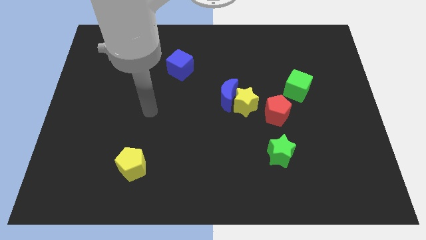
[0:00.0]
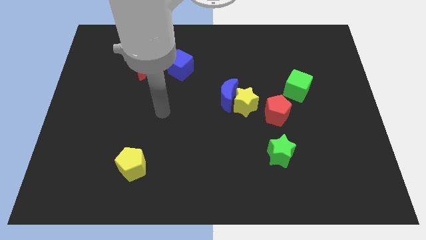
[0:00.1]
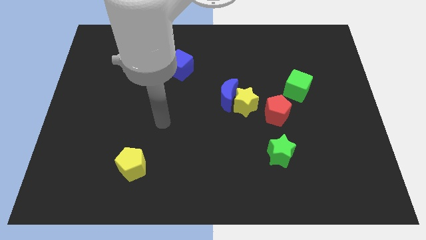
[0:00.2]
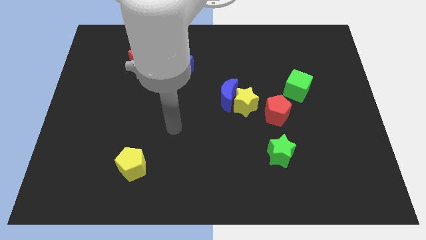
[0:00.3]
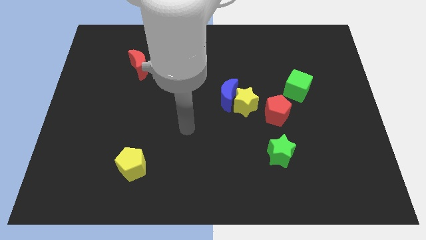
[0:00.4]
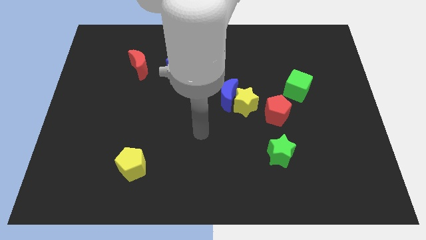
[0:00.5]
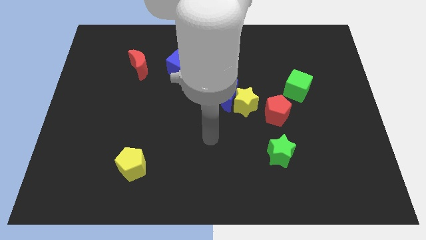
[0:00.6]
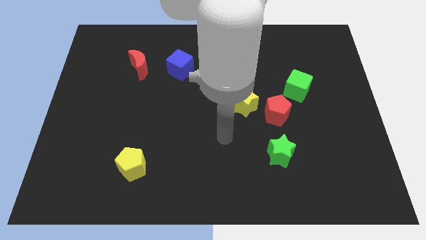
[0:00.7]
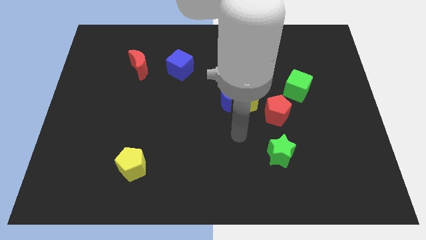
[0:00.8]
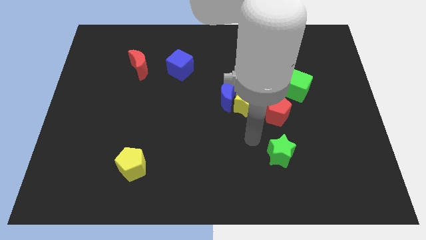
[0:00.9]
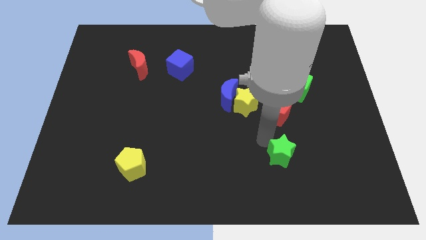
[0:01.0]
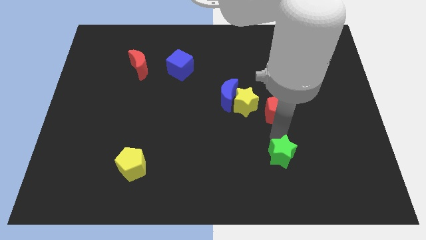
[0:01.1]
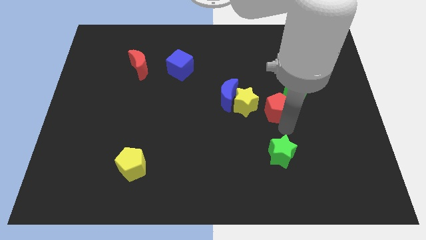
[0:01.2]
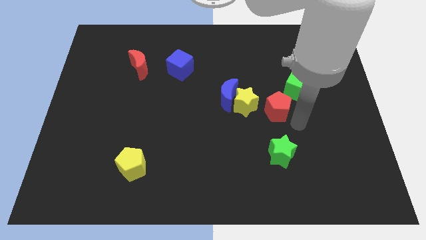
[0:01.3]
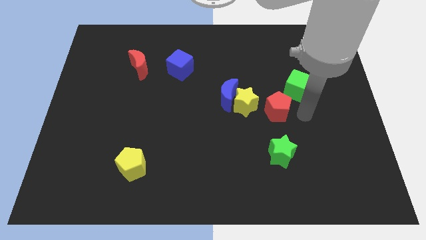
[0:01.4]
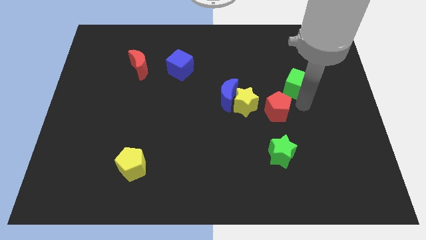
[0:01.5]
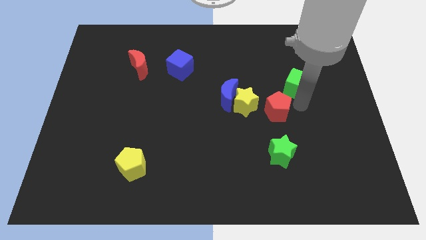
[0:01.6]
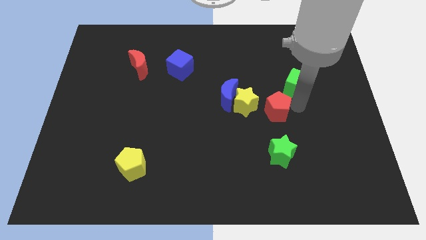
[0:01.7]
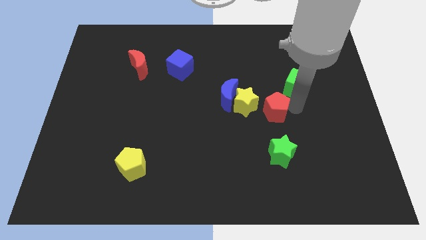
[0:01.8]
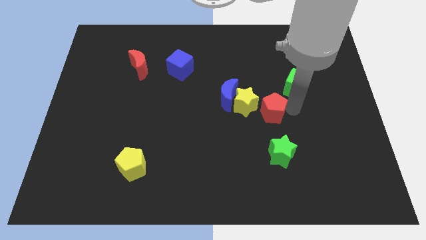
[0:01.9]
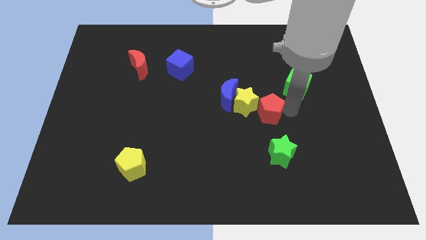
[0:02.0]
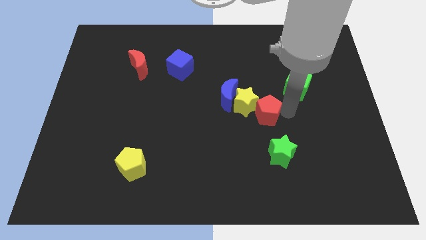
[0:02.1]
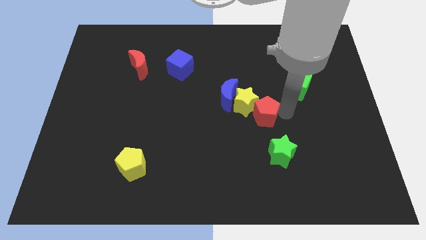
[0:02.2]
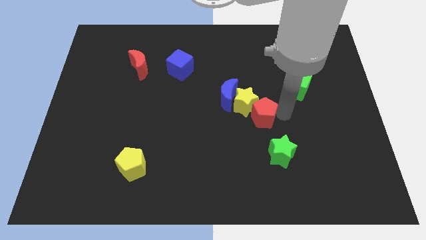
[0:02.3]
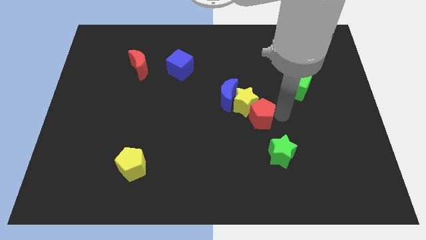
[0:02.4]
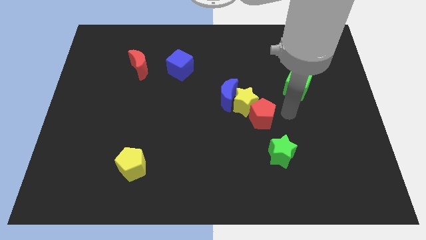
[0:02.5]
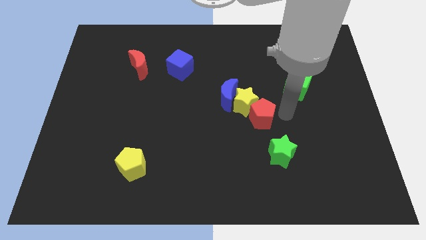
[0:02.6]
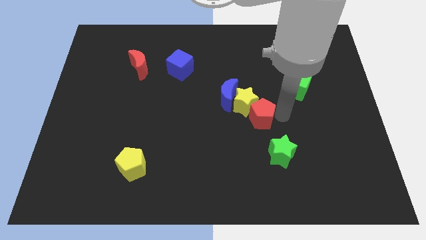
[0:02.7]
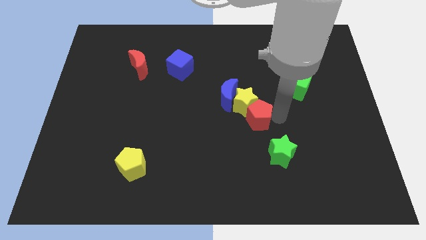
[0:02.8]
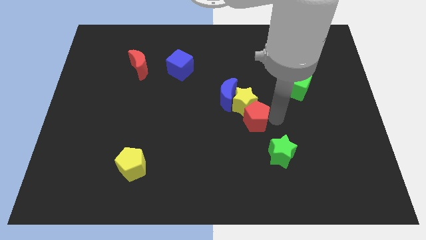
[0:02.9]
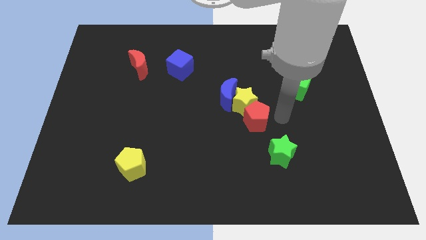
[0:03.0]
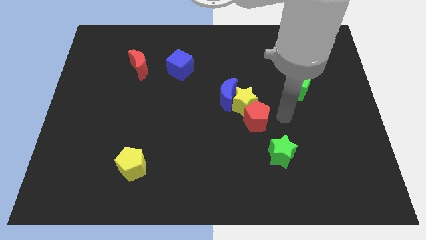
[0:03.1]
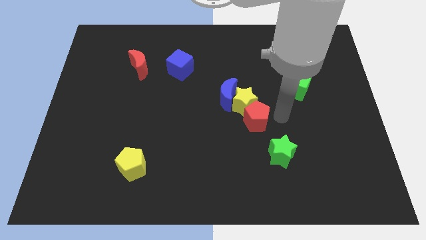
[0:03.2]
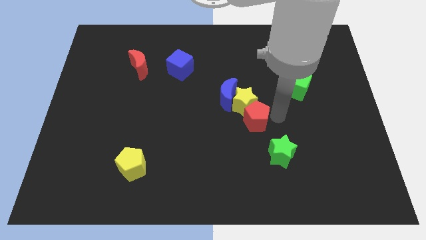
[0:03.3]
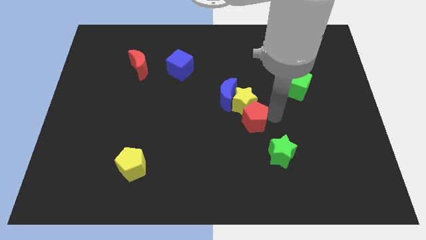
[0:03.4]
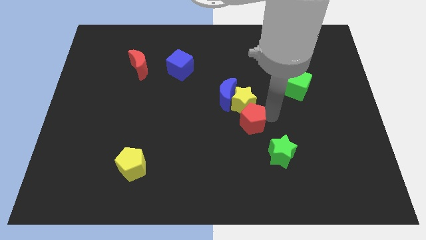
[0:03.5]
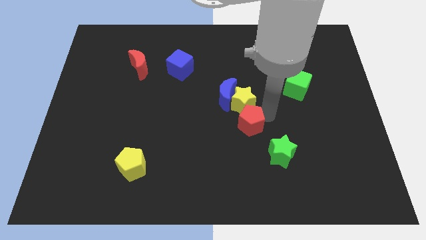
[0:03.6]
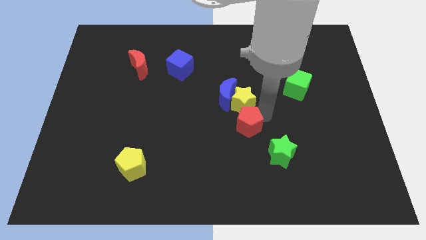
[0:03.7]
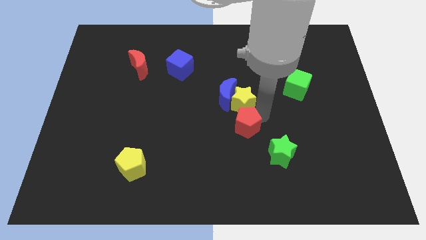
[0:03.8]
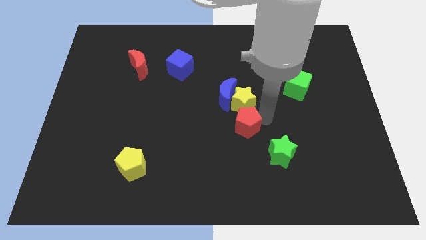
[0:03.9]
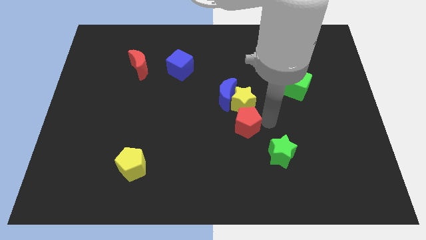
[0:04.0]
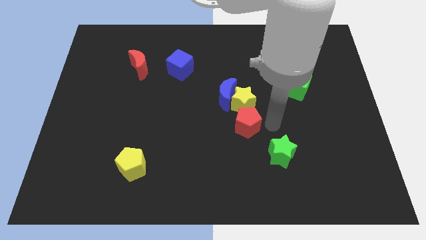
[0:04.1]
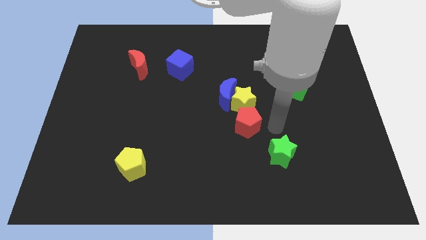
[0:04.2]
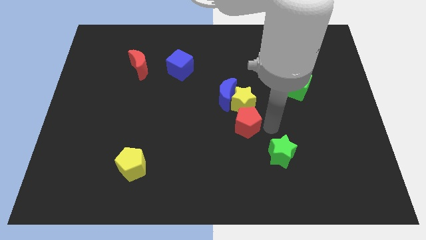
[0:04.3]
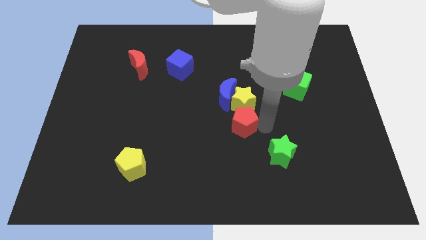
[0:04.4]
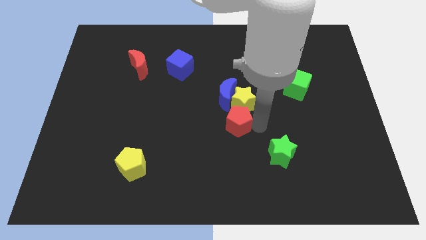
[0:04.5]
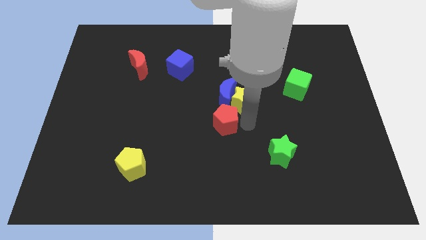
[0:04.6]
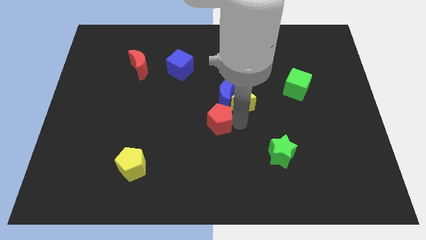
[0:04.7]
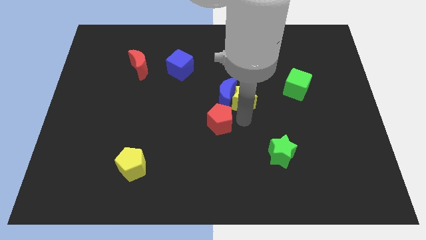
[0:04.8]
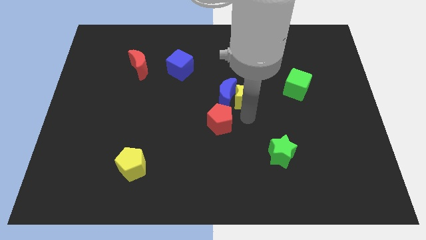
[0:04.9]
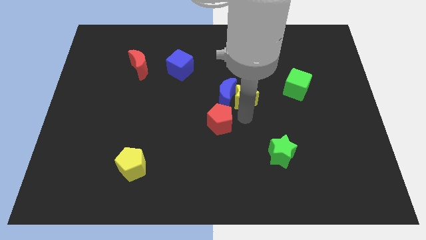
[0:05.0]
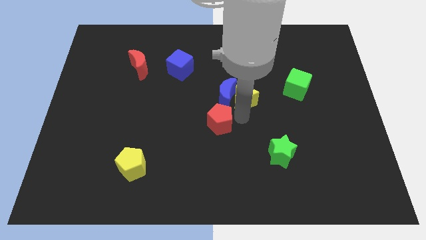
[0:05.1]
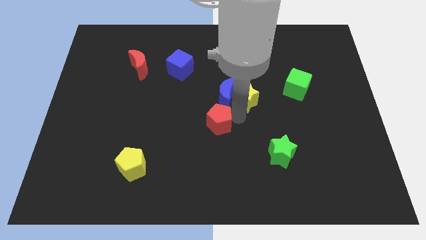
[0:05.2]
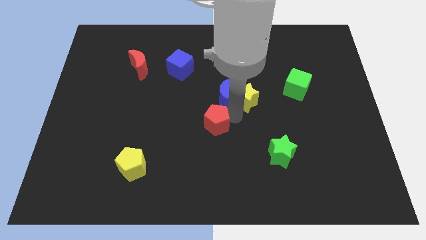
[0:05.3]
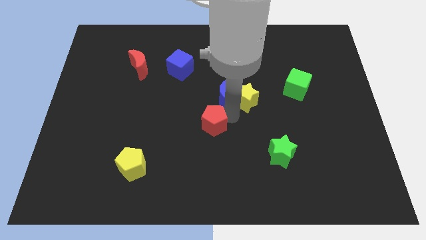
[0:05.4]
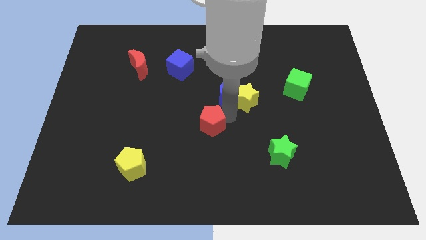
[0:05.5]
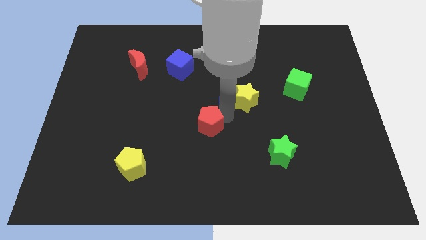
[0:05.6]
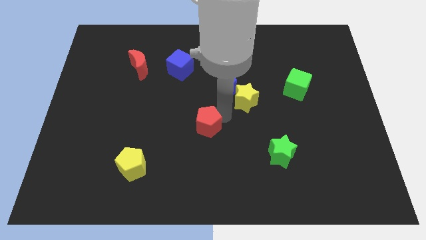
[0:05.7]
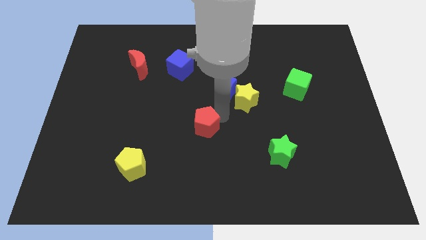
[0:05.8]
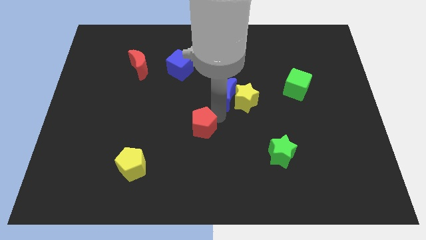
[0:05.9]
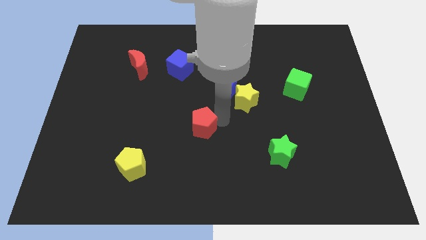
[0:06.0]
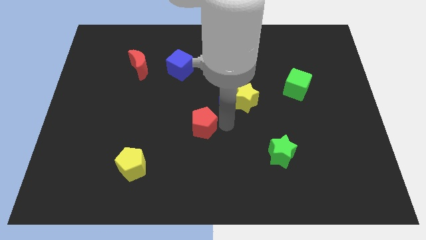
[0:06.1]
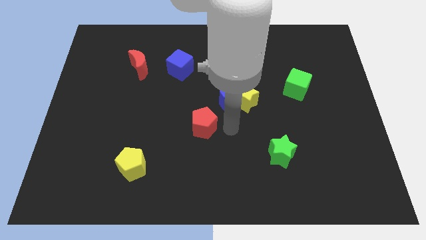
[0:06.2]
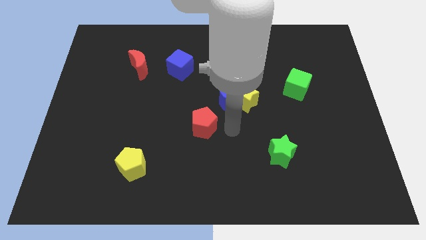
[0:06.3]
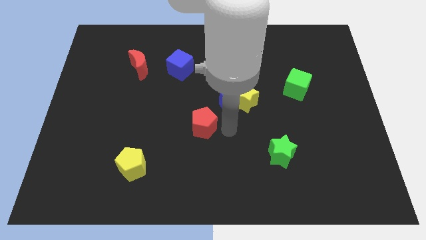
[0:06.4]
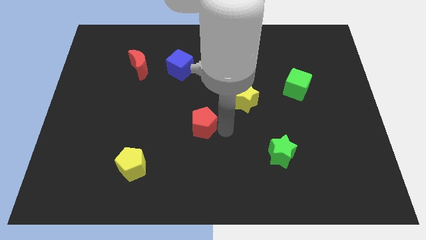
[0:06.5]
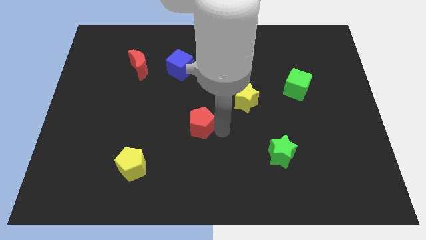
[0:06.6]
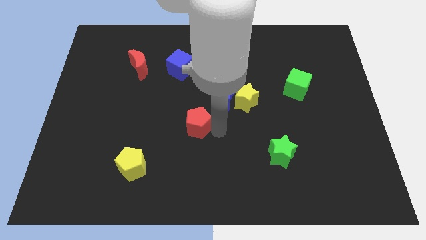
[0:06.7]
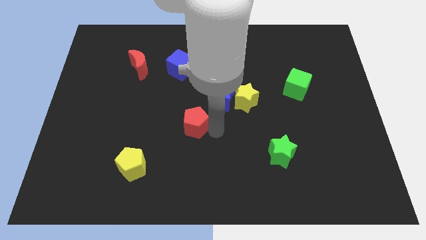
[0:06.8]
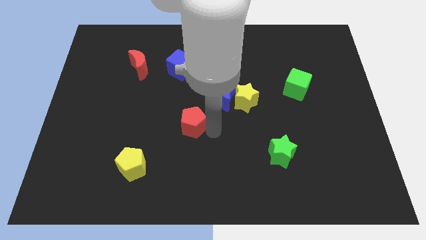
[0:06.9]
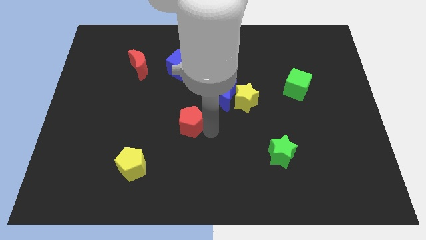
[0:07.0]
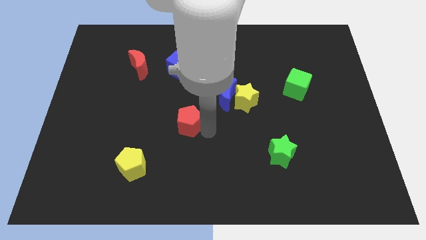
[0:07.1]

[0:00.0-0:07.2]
push the red pentagon to the left

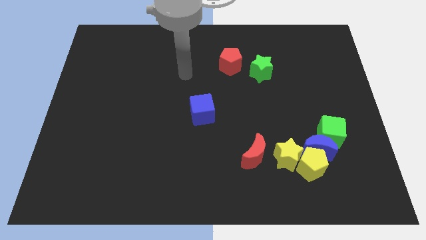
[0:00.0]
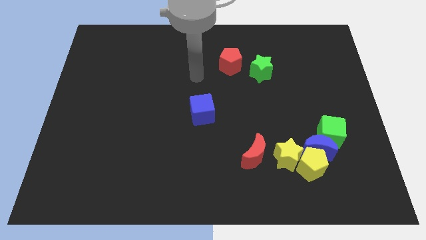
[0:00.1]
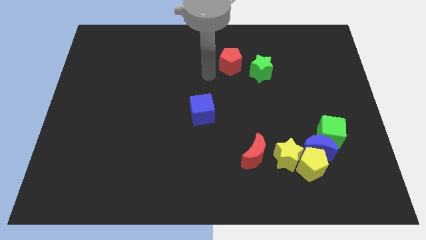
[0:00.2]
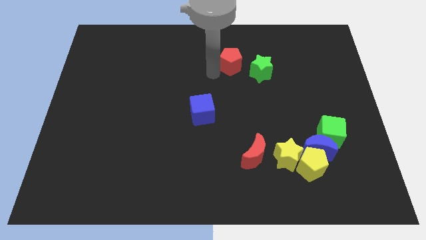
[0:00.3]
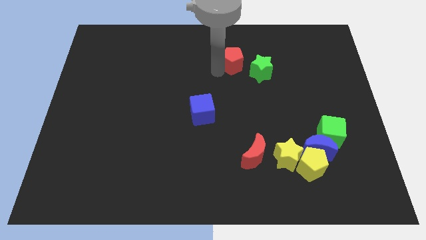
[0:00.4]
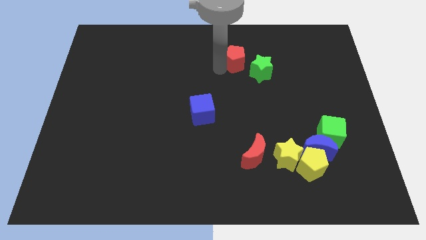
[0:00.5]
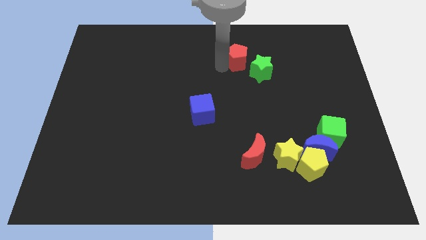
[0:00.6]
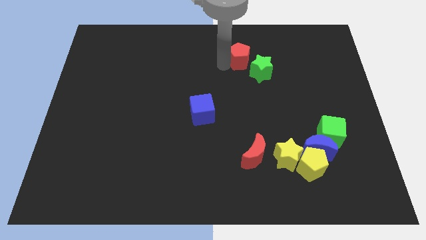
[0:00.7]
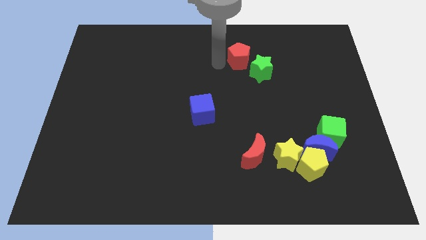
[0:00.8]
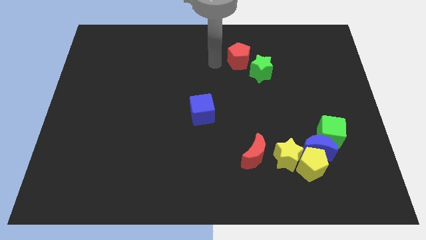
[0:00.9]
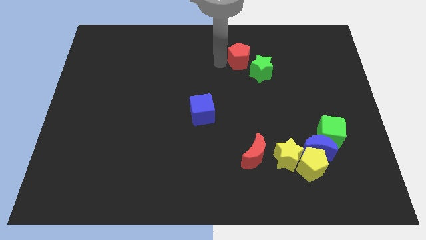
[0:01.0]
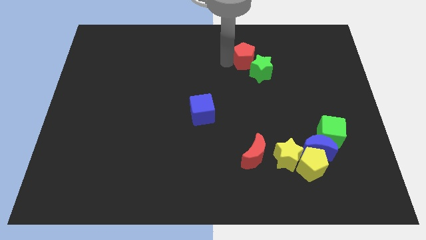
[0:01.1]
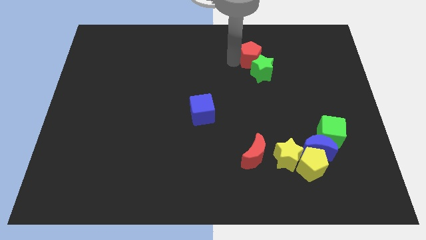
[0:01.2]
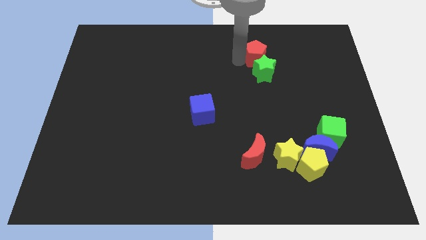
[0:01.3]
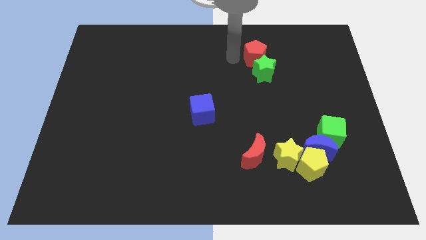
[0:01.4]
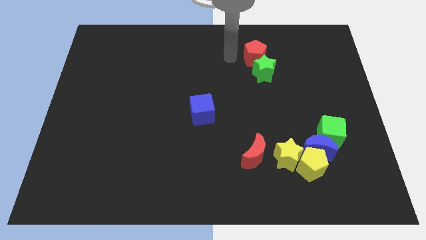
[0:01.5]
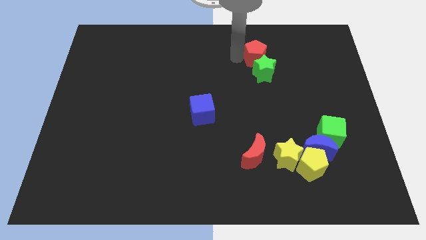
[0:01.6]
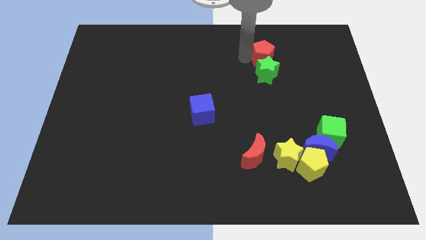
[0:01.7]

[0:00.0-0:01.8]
slightly move the red pentagon to the right
